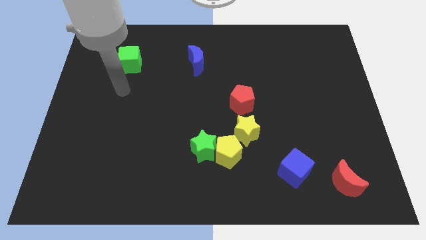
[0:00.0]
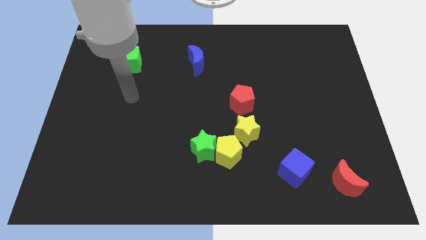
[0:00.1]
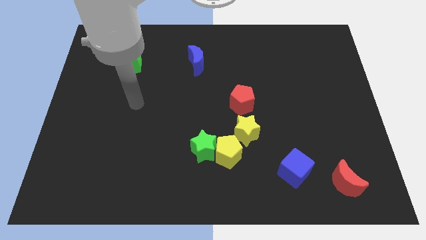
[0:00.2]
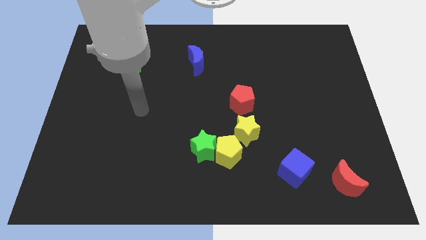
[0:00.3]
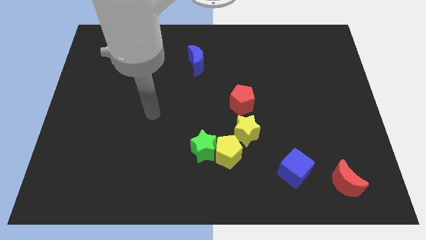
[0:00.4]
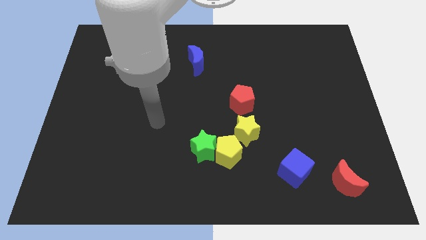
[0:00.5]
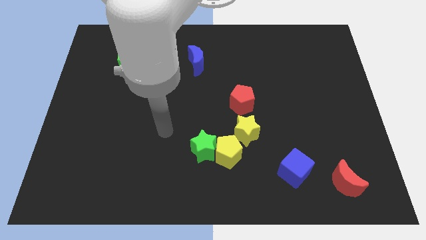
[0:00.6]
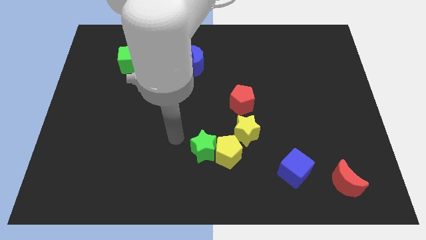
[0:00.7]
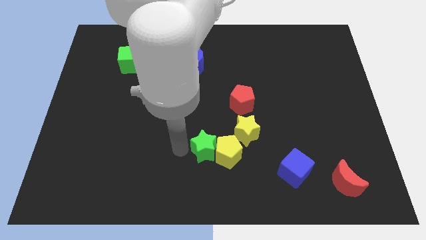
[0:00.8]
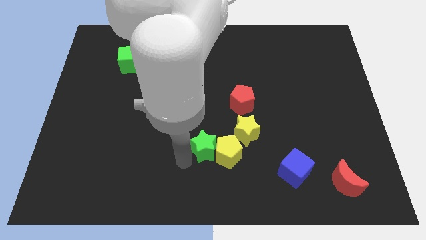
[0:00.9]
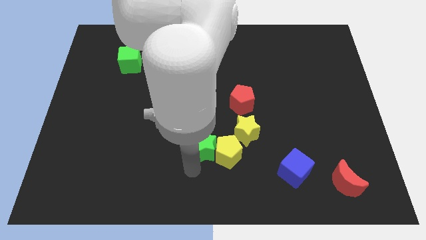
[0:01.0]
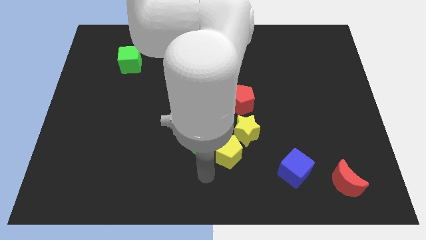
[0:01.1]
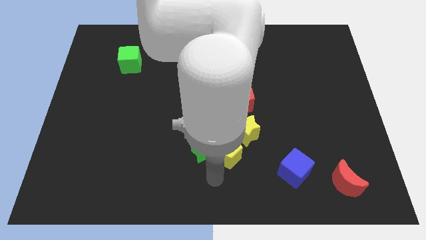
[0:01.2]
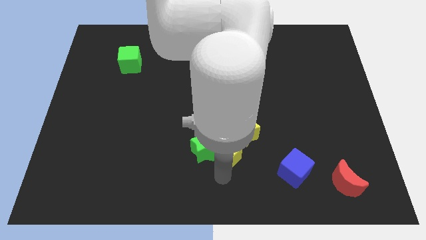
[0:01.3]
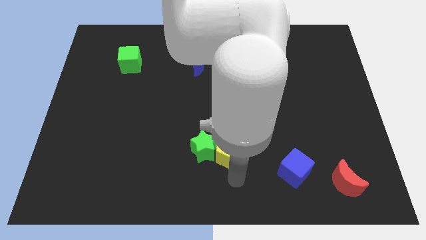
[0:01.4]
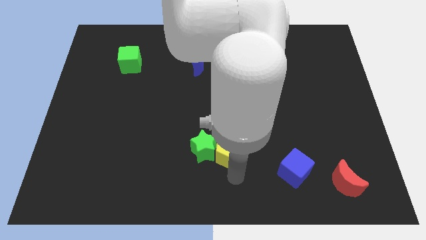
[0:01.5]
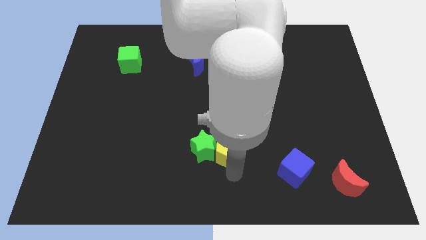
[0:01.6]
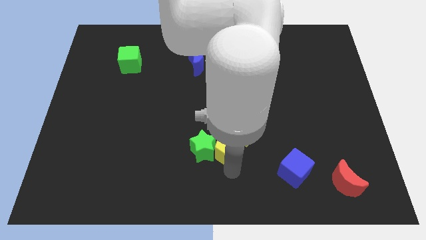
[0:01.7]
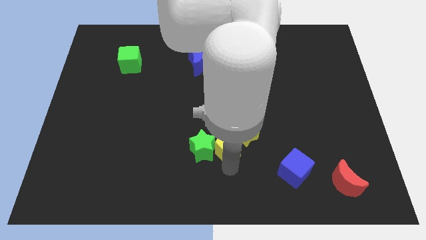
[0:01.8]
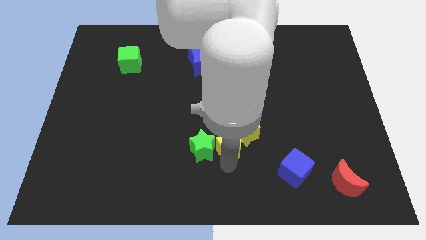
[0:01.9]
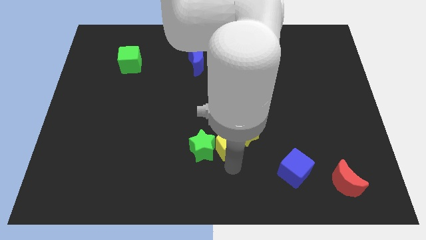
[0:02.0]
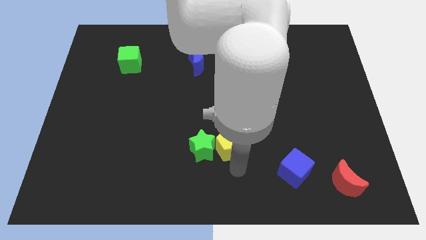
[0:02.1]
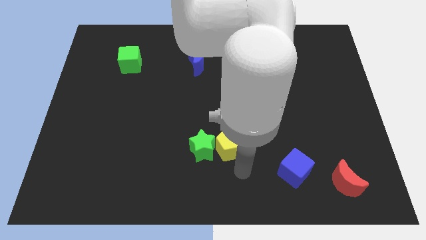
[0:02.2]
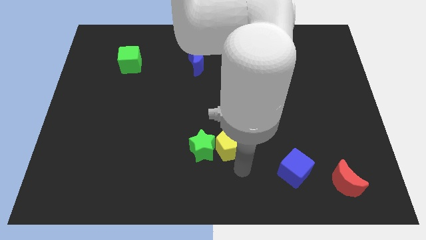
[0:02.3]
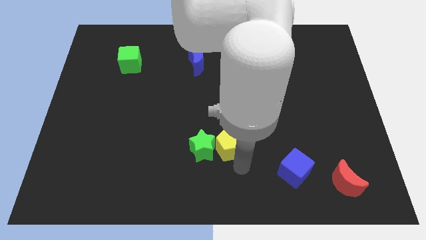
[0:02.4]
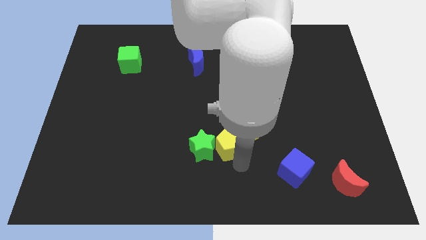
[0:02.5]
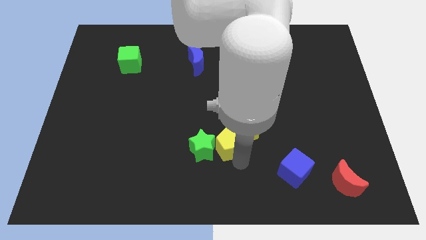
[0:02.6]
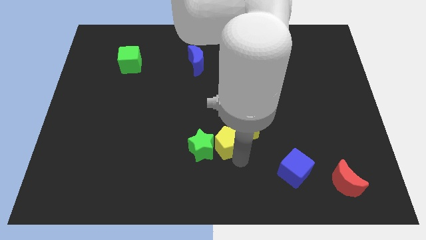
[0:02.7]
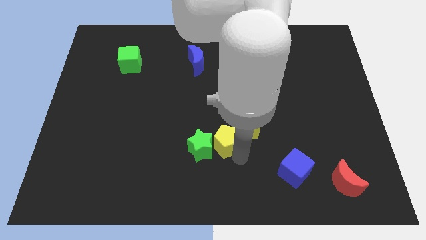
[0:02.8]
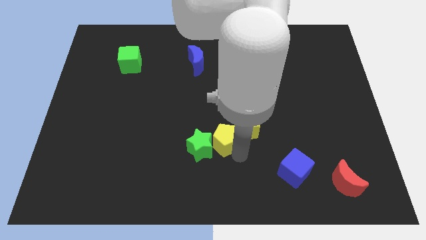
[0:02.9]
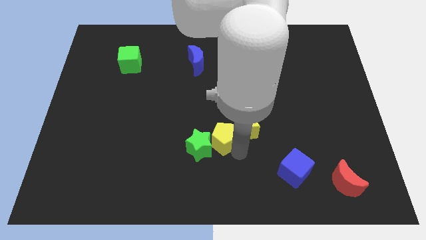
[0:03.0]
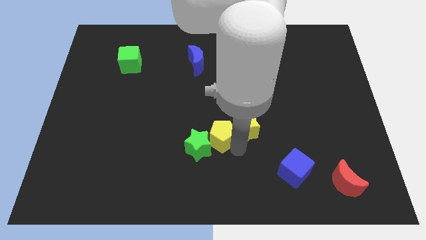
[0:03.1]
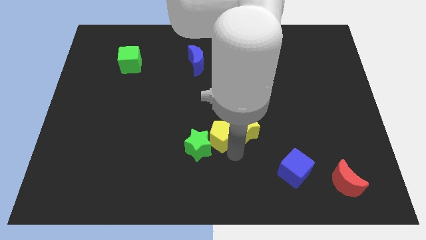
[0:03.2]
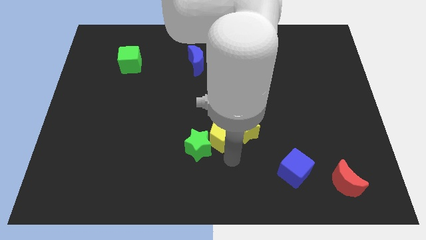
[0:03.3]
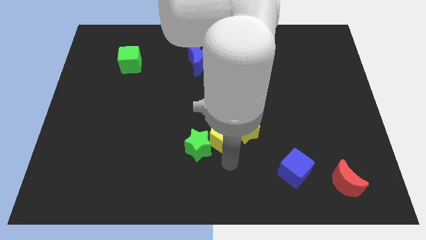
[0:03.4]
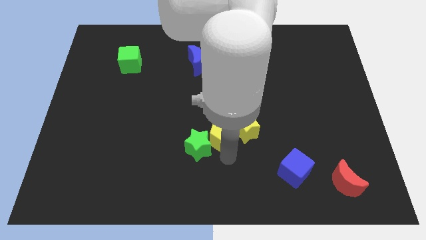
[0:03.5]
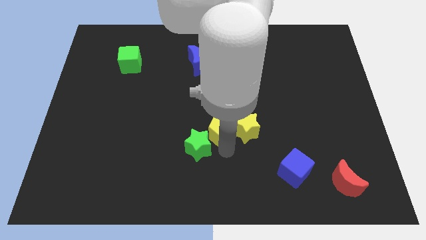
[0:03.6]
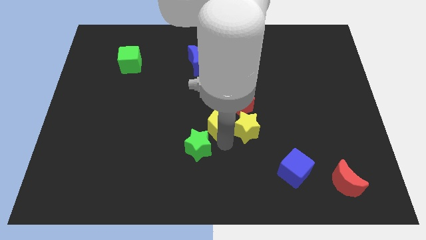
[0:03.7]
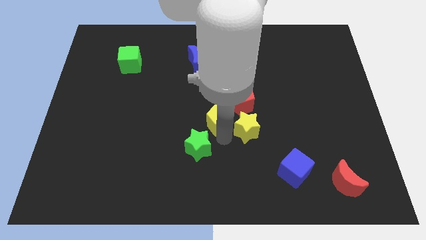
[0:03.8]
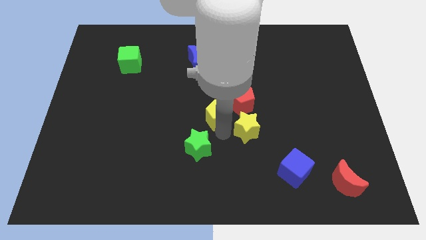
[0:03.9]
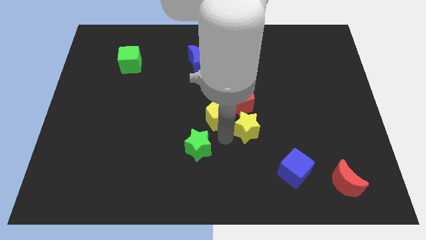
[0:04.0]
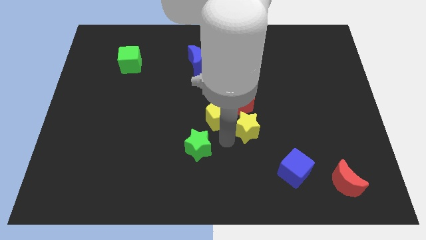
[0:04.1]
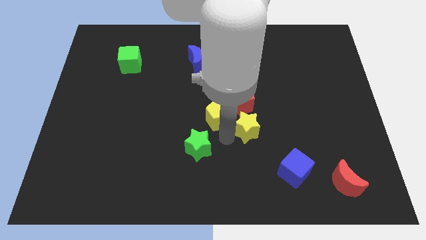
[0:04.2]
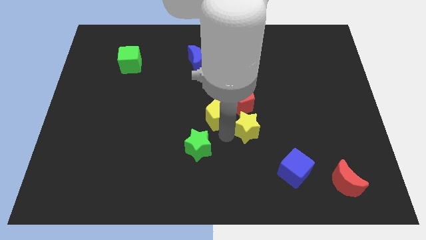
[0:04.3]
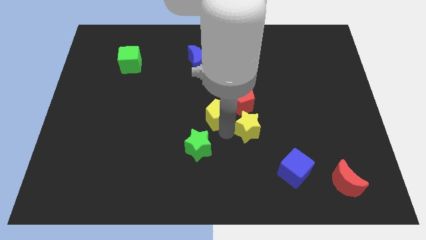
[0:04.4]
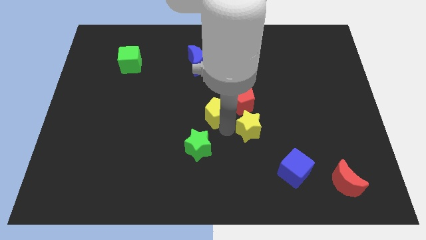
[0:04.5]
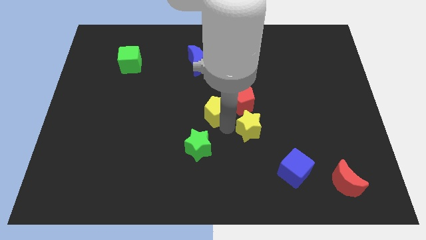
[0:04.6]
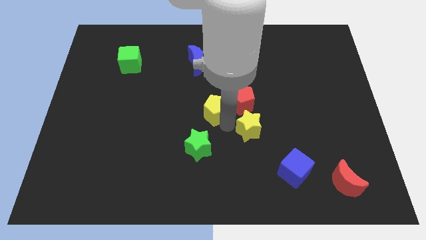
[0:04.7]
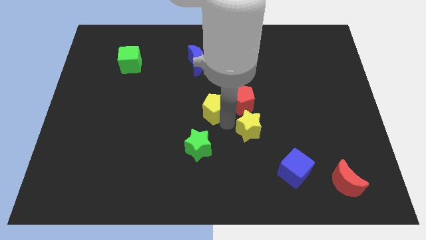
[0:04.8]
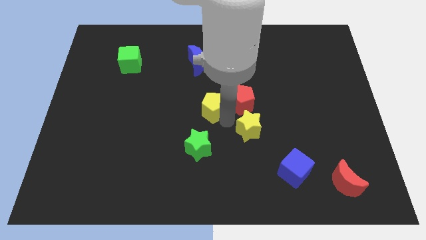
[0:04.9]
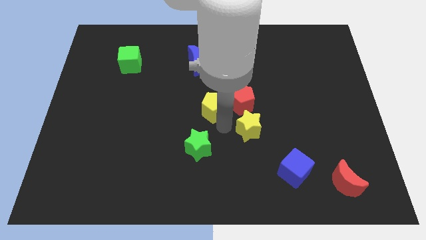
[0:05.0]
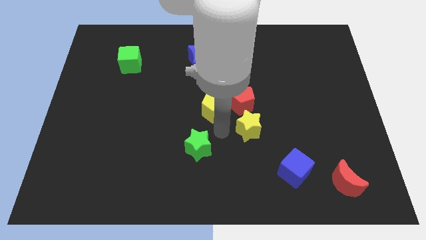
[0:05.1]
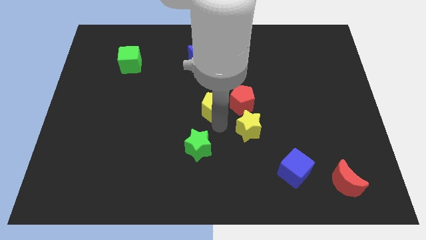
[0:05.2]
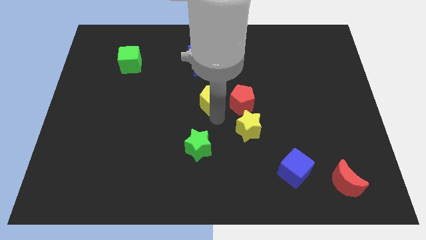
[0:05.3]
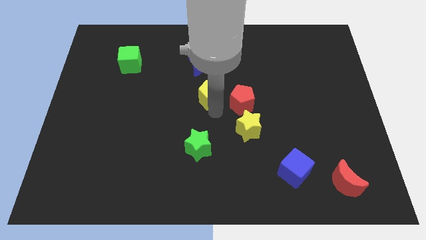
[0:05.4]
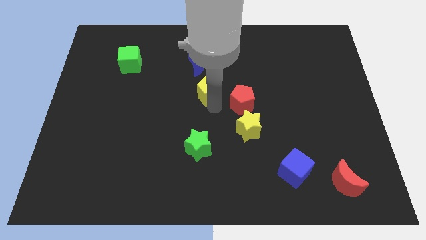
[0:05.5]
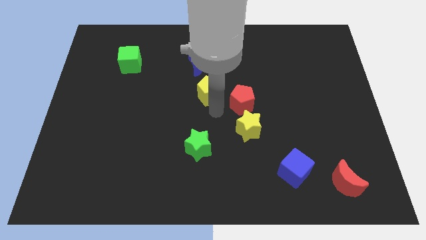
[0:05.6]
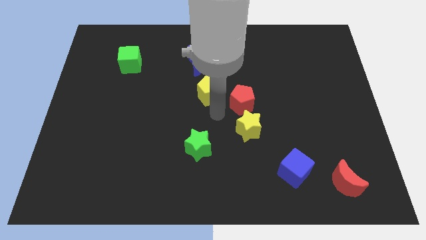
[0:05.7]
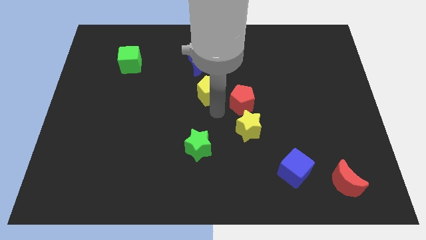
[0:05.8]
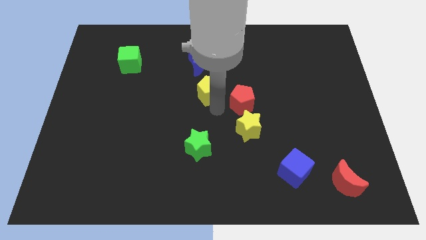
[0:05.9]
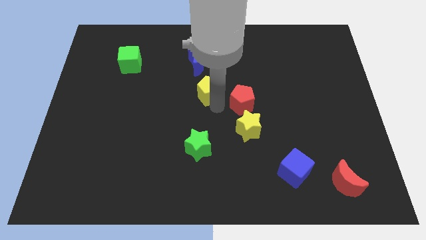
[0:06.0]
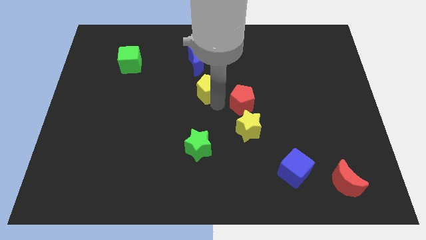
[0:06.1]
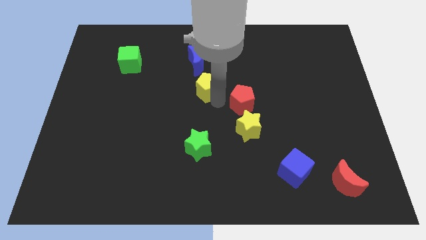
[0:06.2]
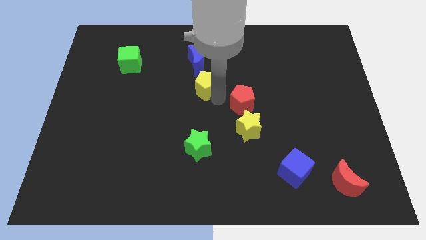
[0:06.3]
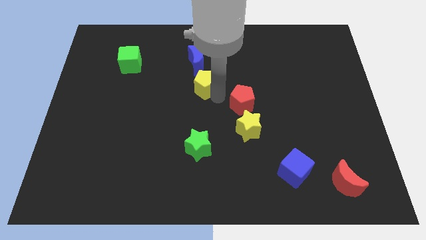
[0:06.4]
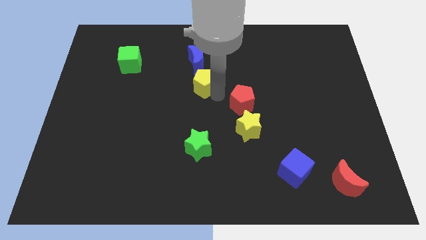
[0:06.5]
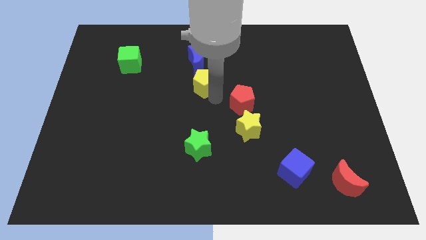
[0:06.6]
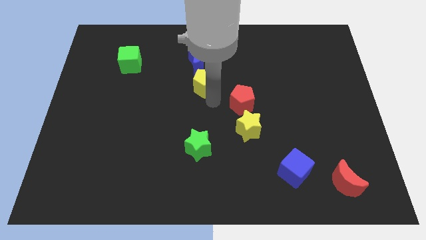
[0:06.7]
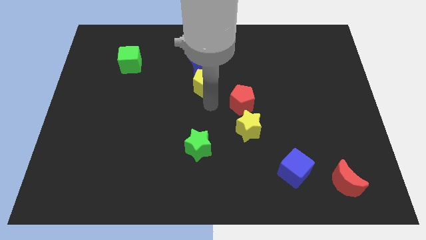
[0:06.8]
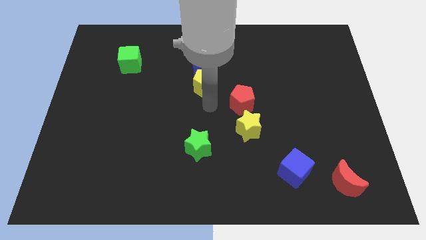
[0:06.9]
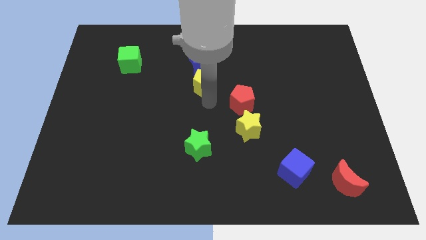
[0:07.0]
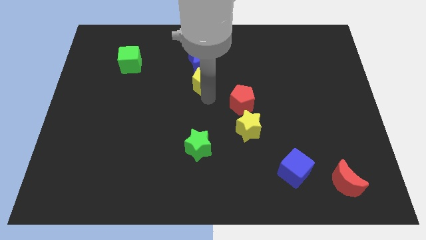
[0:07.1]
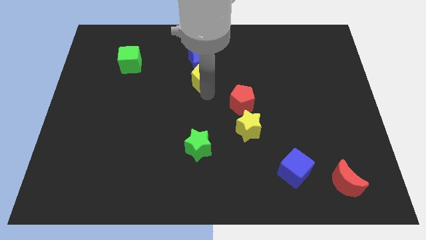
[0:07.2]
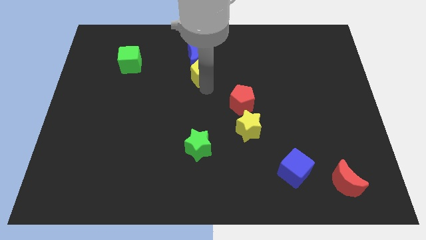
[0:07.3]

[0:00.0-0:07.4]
push the yellow pentagon towards the blue moon
